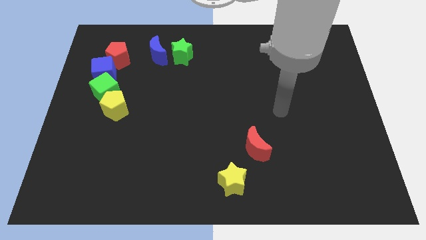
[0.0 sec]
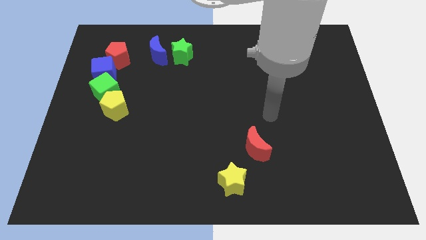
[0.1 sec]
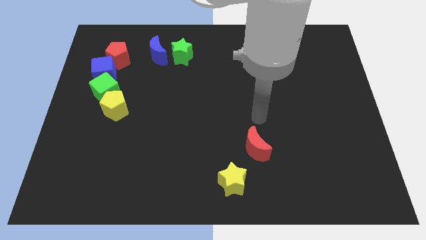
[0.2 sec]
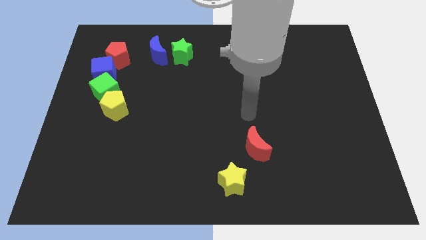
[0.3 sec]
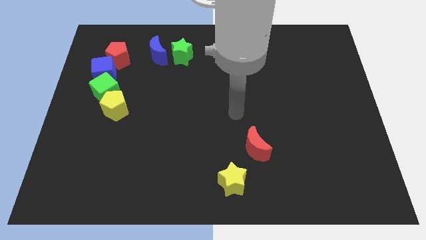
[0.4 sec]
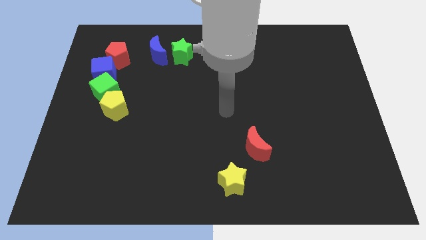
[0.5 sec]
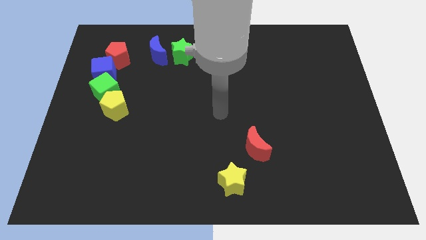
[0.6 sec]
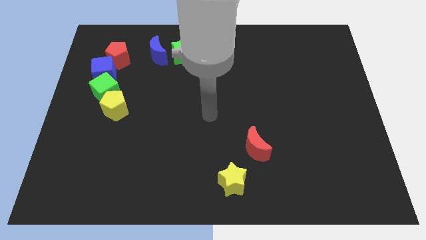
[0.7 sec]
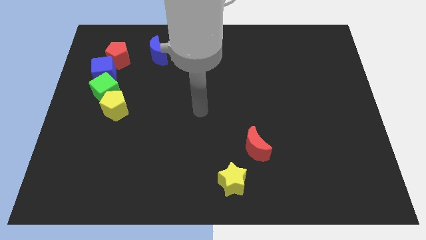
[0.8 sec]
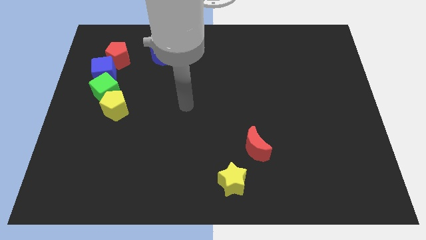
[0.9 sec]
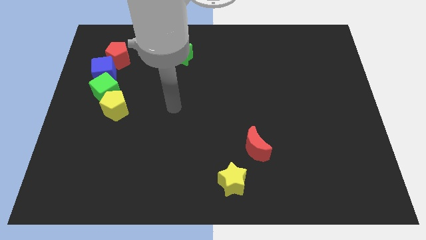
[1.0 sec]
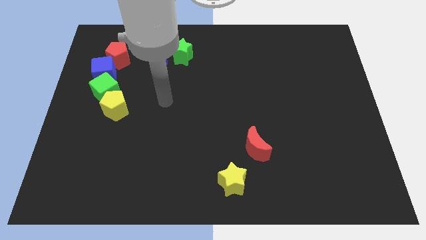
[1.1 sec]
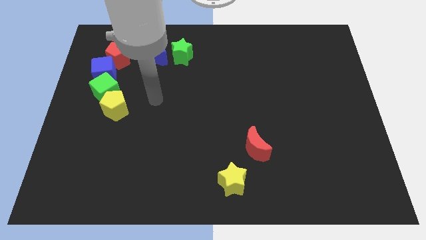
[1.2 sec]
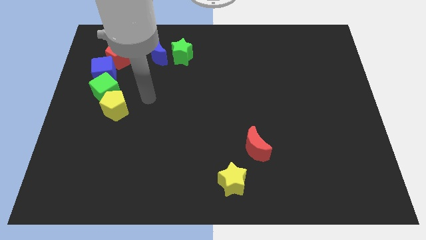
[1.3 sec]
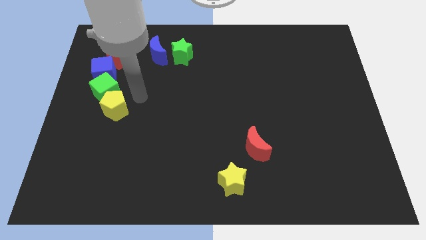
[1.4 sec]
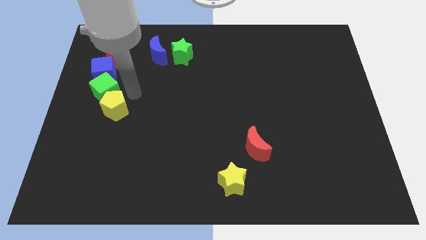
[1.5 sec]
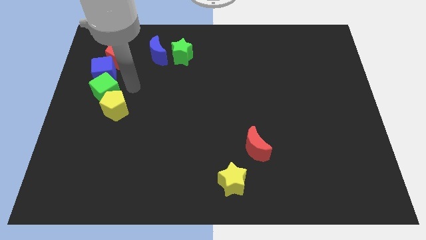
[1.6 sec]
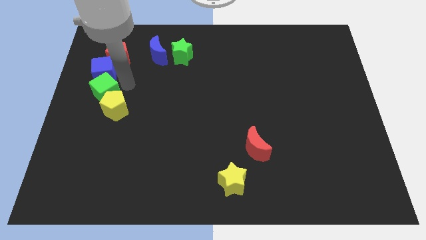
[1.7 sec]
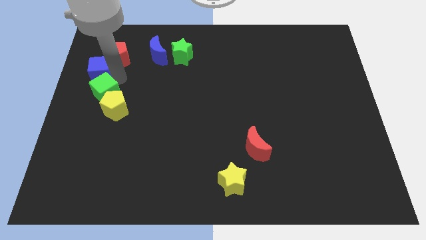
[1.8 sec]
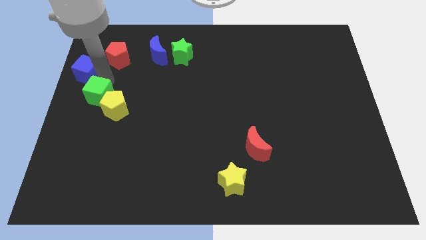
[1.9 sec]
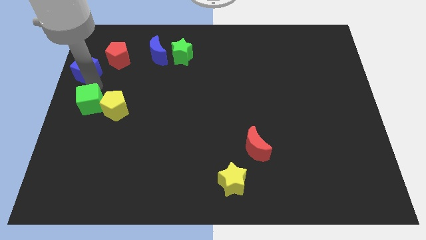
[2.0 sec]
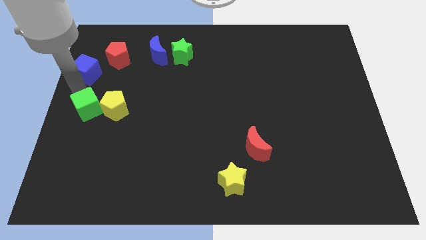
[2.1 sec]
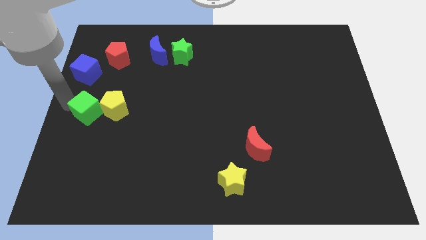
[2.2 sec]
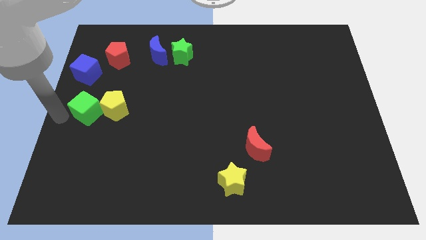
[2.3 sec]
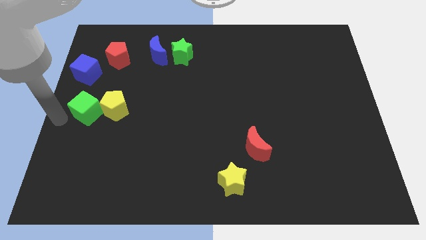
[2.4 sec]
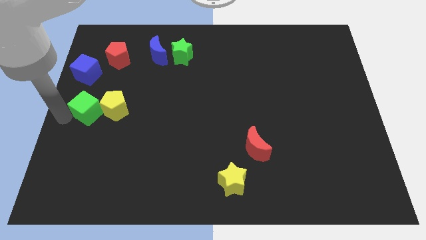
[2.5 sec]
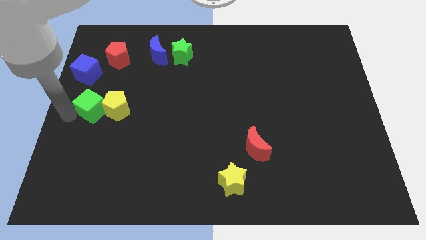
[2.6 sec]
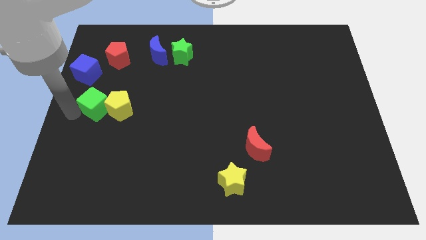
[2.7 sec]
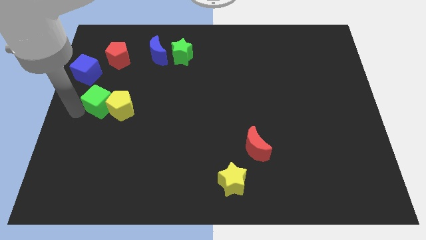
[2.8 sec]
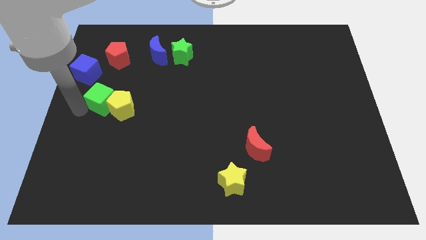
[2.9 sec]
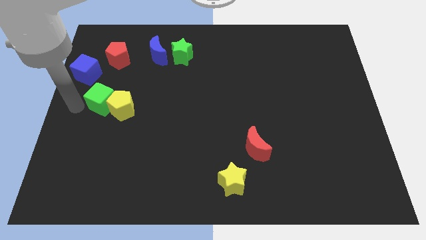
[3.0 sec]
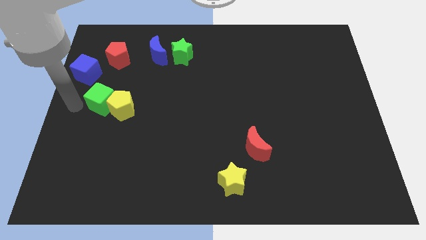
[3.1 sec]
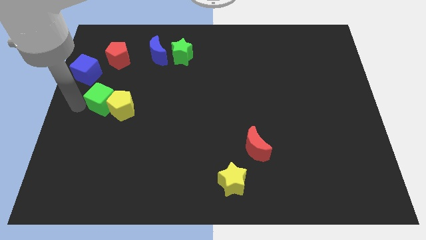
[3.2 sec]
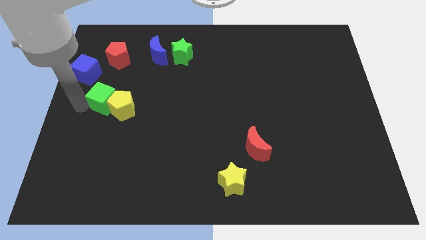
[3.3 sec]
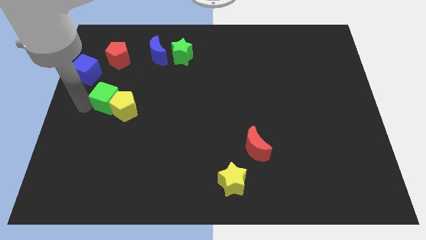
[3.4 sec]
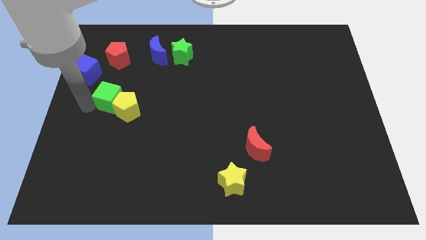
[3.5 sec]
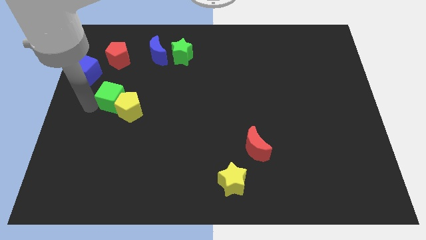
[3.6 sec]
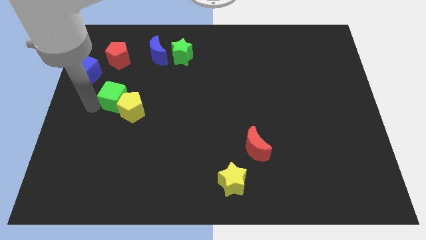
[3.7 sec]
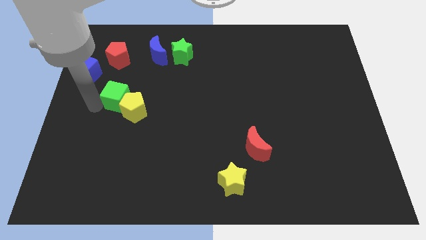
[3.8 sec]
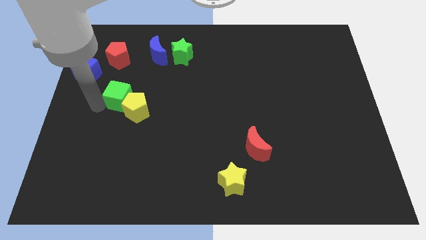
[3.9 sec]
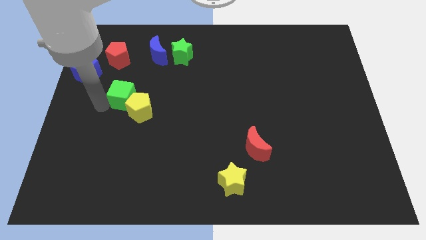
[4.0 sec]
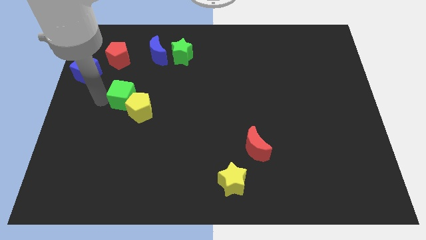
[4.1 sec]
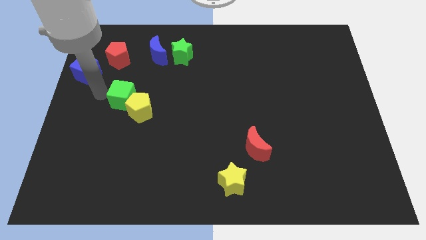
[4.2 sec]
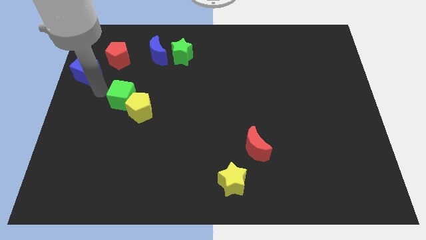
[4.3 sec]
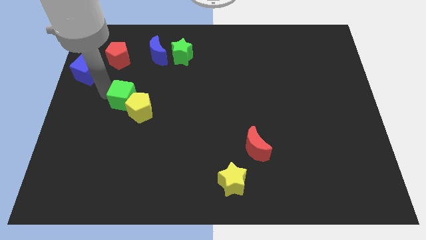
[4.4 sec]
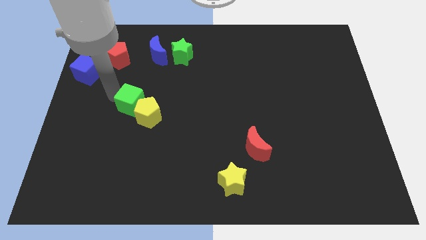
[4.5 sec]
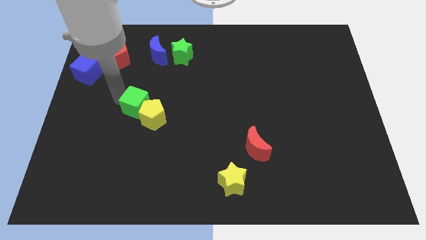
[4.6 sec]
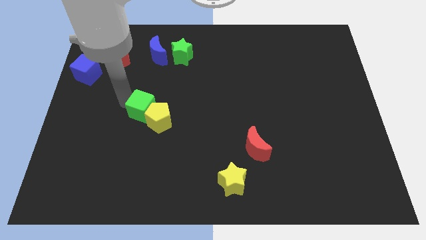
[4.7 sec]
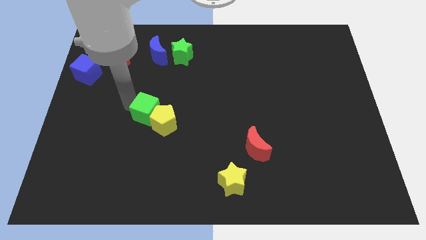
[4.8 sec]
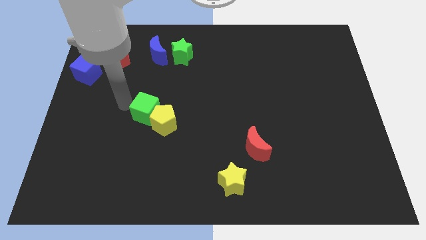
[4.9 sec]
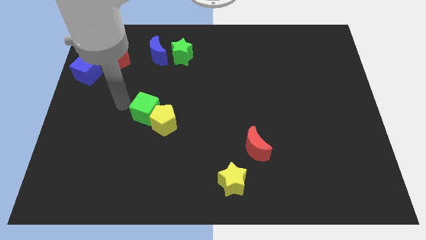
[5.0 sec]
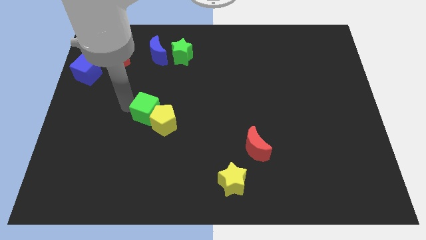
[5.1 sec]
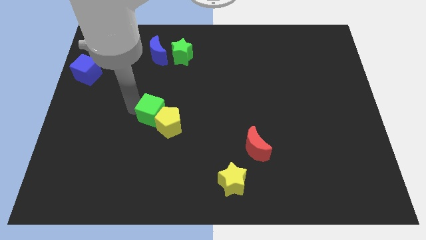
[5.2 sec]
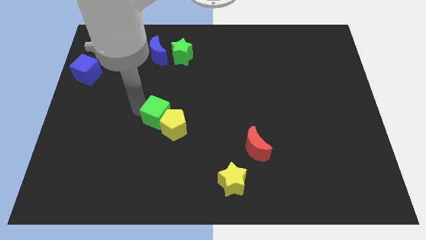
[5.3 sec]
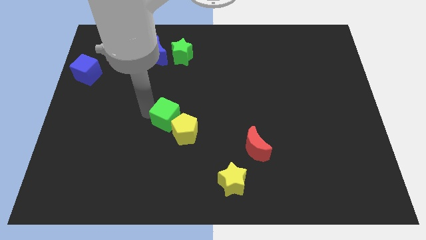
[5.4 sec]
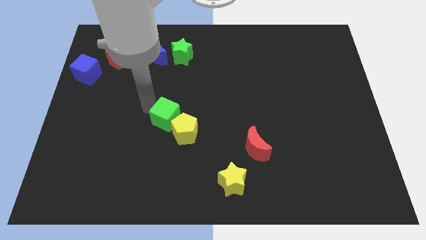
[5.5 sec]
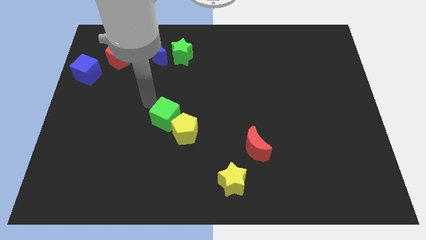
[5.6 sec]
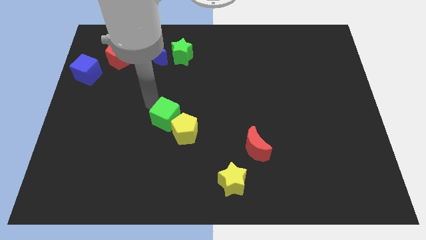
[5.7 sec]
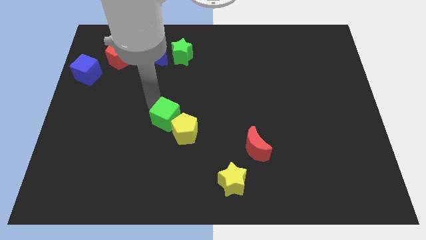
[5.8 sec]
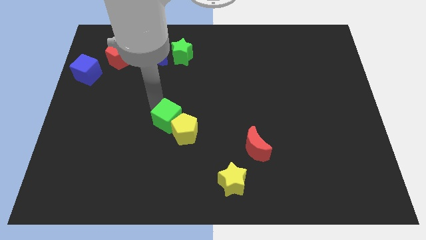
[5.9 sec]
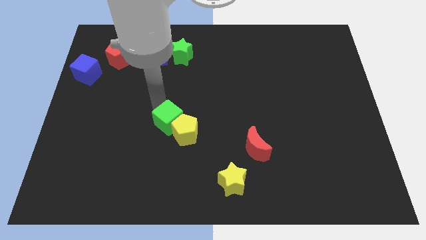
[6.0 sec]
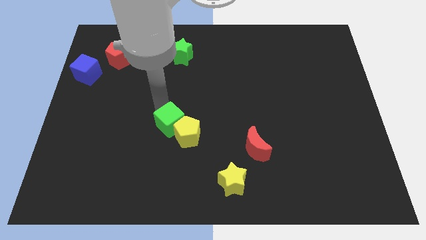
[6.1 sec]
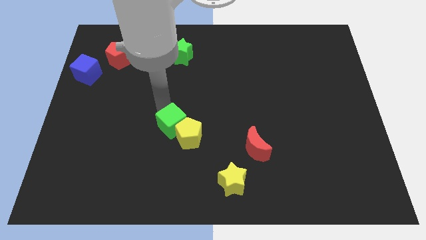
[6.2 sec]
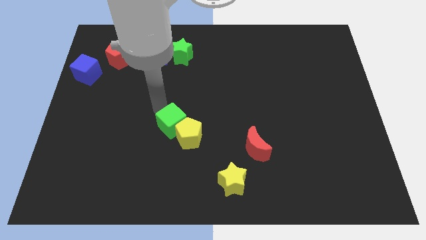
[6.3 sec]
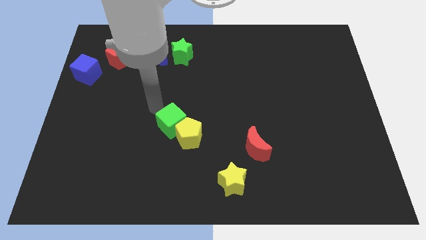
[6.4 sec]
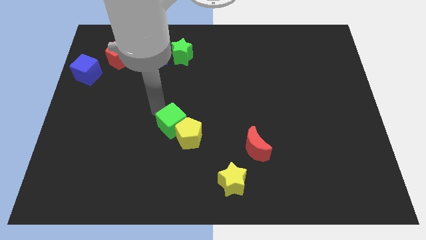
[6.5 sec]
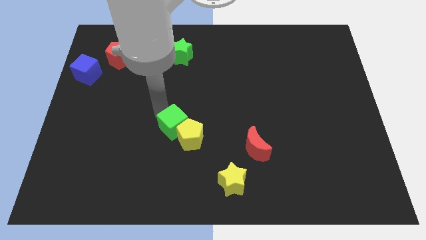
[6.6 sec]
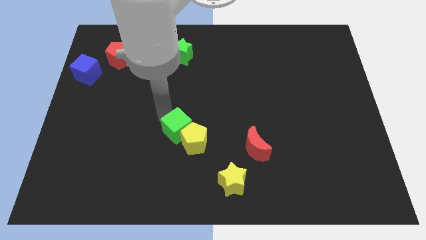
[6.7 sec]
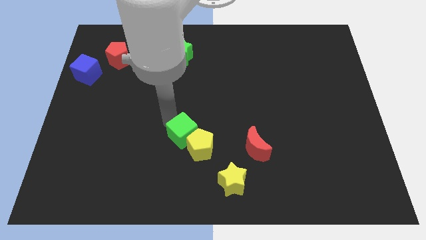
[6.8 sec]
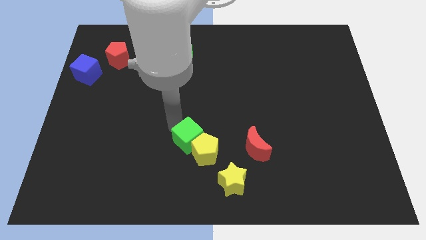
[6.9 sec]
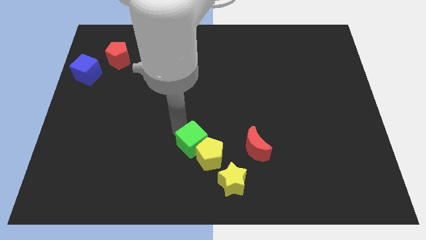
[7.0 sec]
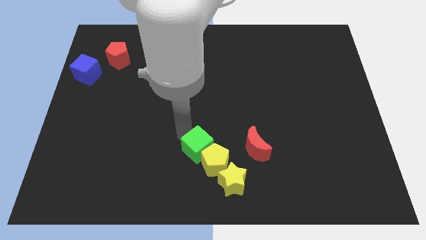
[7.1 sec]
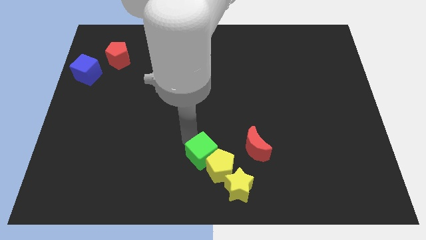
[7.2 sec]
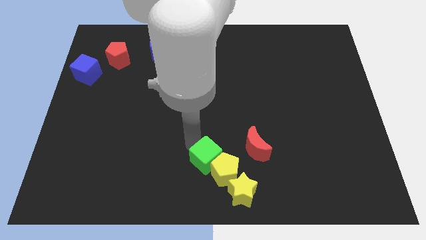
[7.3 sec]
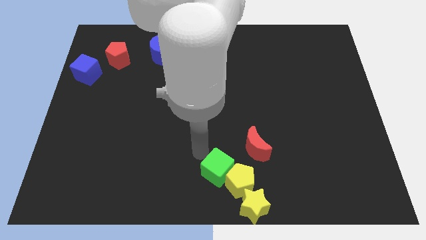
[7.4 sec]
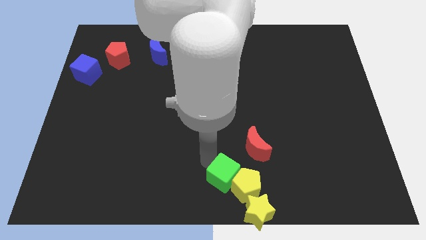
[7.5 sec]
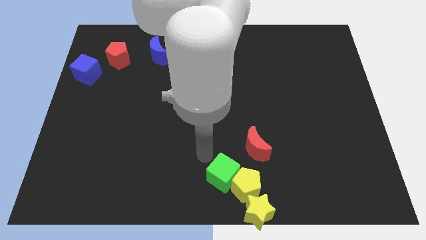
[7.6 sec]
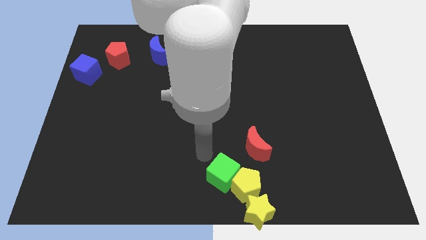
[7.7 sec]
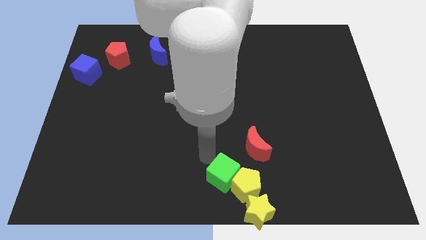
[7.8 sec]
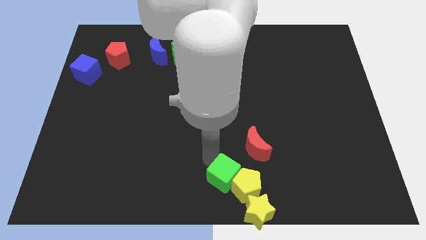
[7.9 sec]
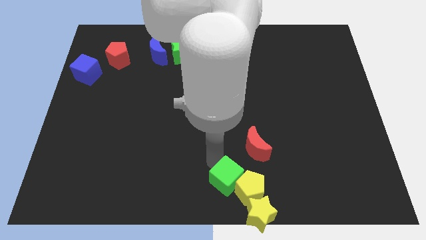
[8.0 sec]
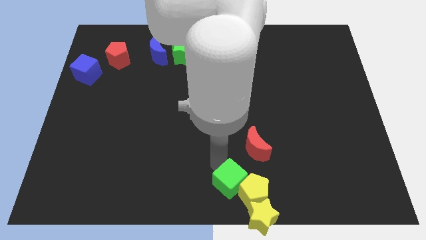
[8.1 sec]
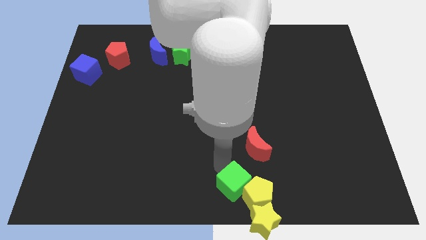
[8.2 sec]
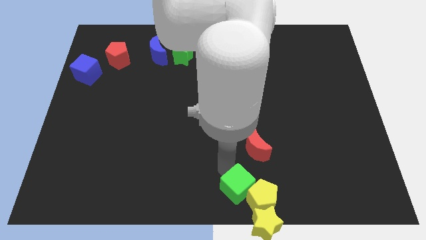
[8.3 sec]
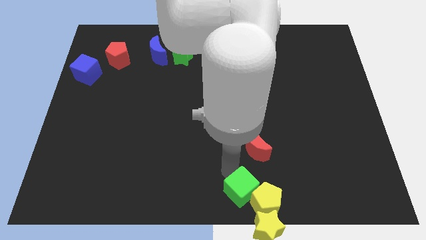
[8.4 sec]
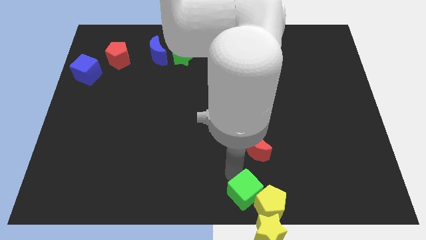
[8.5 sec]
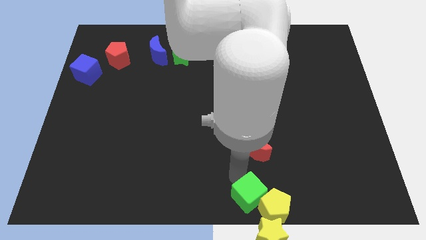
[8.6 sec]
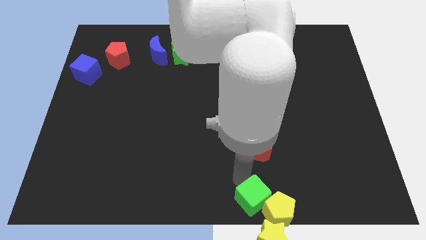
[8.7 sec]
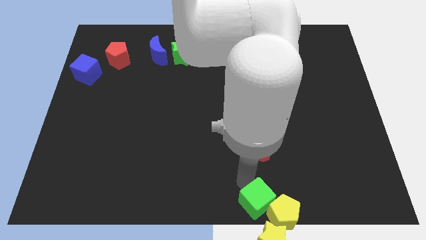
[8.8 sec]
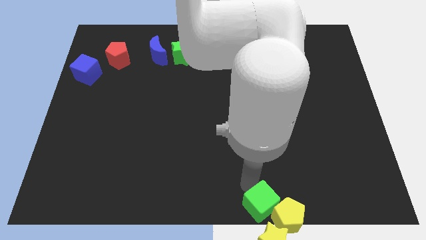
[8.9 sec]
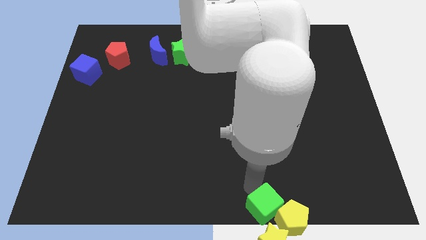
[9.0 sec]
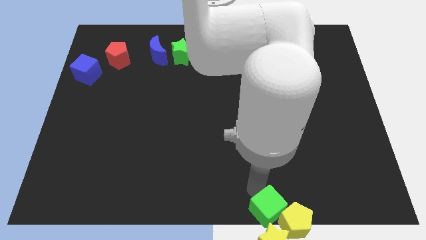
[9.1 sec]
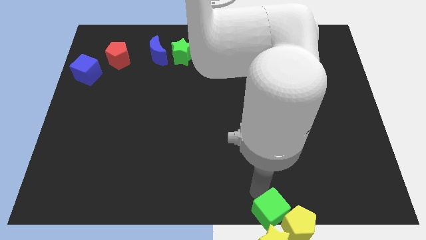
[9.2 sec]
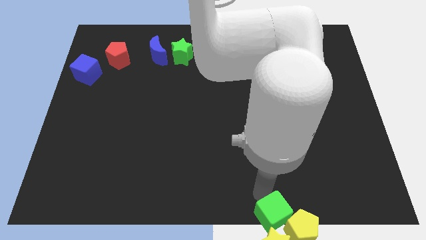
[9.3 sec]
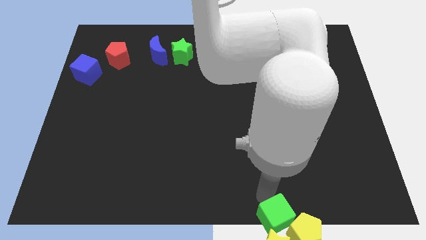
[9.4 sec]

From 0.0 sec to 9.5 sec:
move the green cube towards the yellow star
